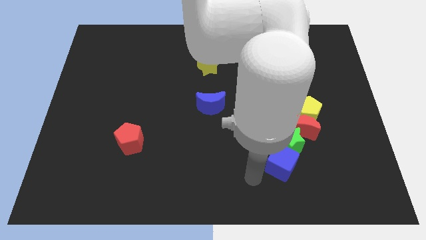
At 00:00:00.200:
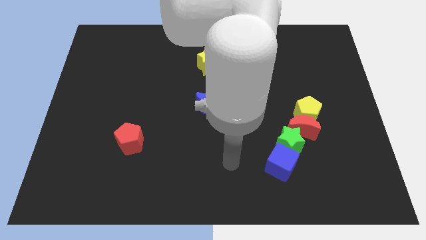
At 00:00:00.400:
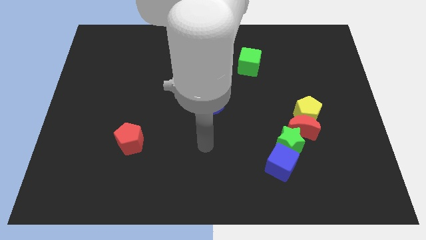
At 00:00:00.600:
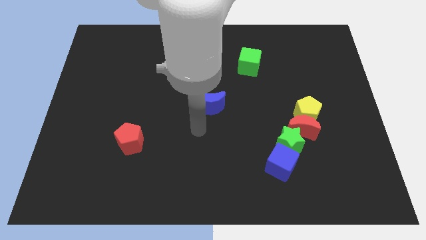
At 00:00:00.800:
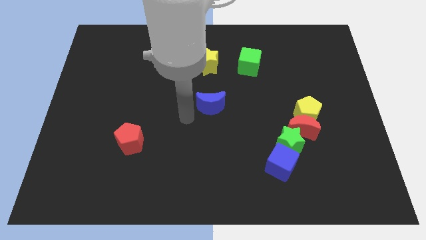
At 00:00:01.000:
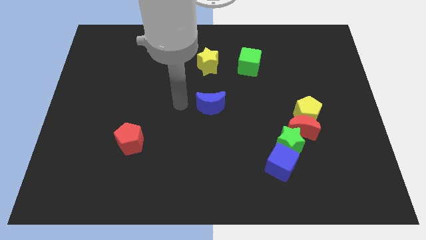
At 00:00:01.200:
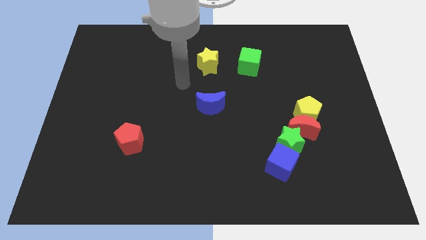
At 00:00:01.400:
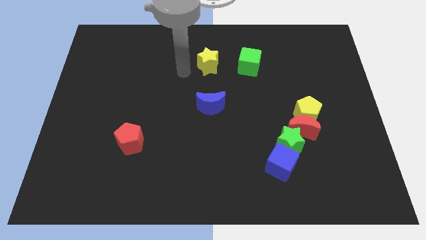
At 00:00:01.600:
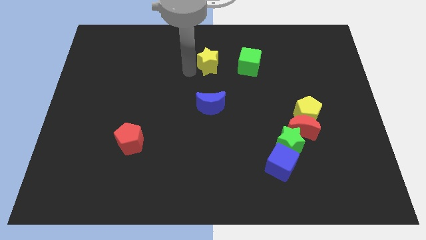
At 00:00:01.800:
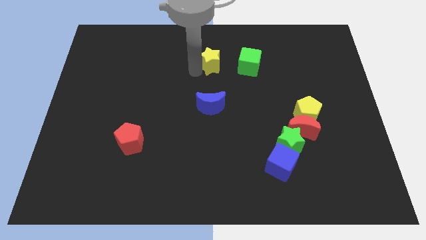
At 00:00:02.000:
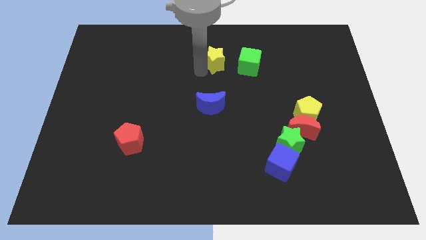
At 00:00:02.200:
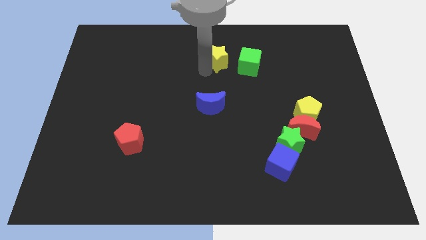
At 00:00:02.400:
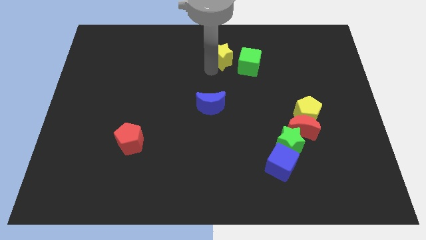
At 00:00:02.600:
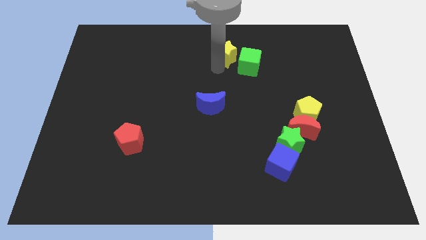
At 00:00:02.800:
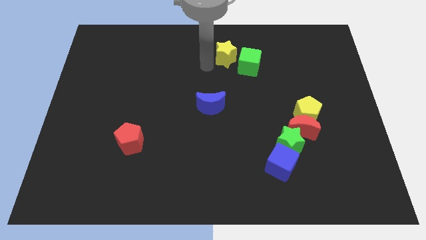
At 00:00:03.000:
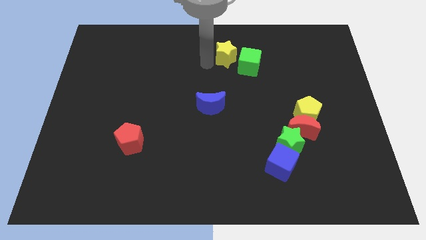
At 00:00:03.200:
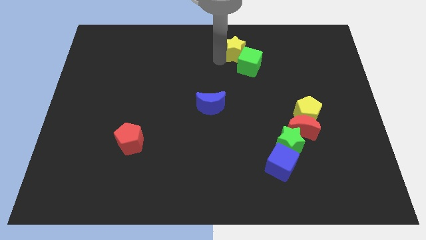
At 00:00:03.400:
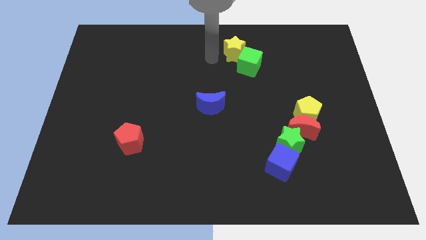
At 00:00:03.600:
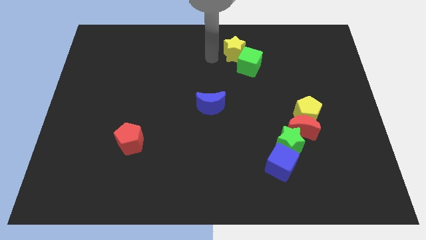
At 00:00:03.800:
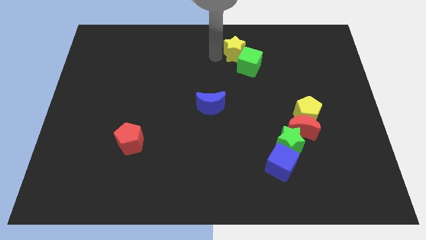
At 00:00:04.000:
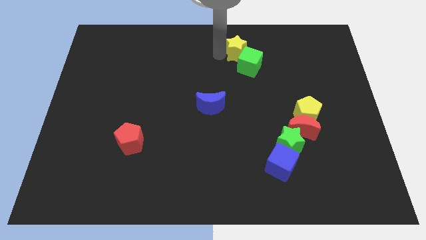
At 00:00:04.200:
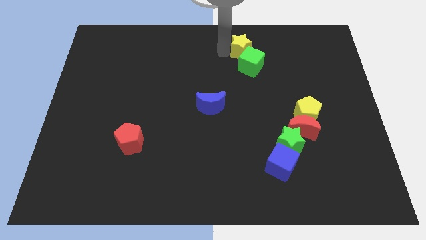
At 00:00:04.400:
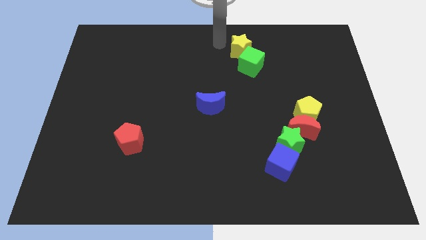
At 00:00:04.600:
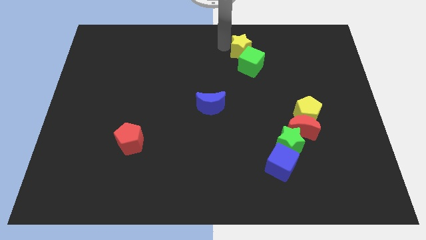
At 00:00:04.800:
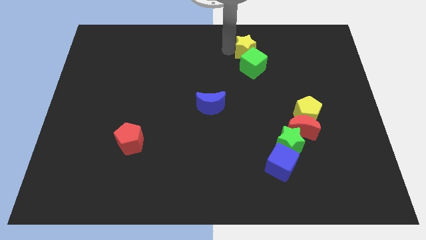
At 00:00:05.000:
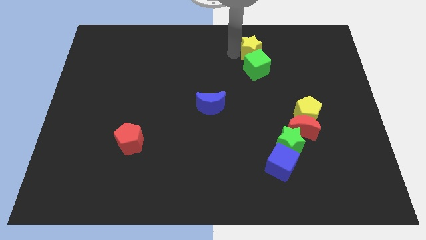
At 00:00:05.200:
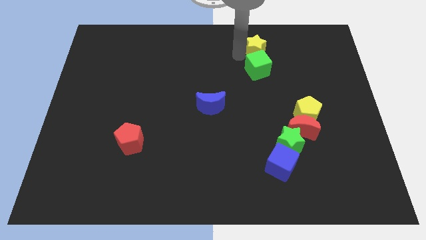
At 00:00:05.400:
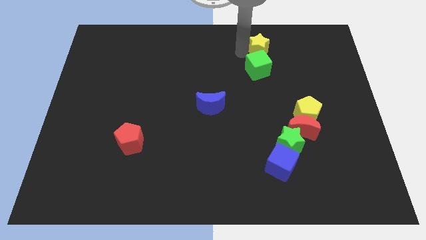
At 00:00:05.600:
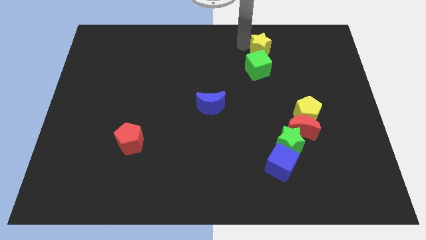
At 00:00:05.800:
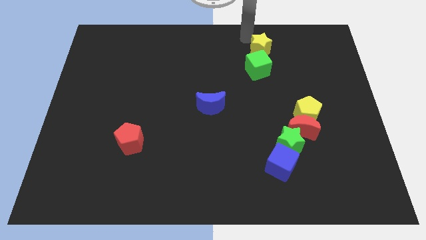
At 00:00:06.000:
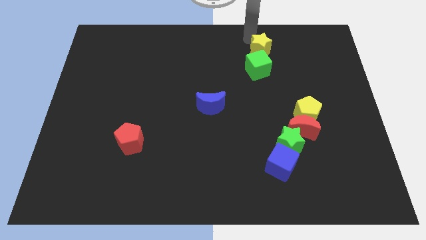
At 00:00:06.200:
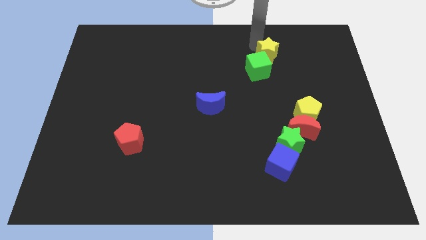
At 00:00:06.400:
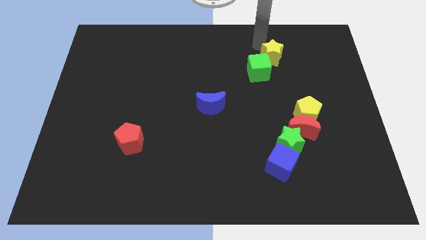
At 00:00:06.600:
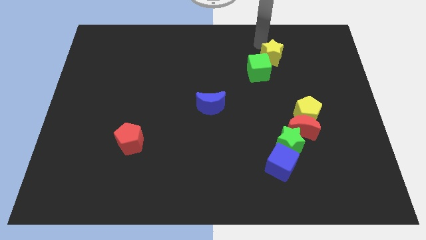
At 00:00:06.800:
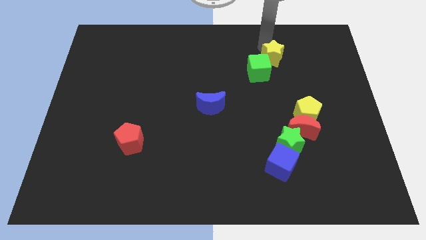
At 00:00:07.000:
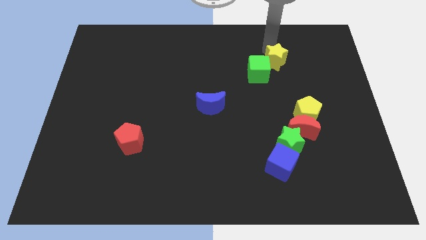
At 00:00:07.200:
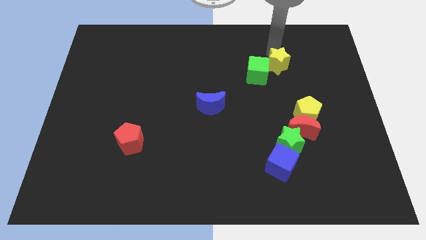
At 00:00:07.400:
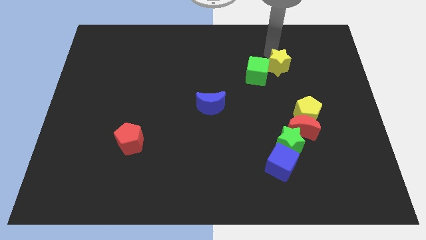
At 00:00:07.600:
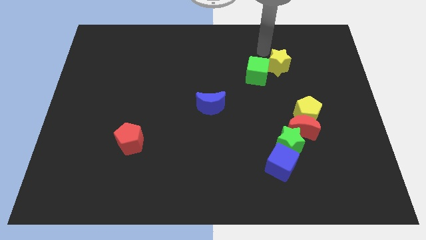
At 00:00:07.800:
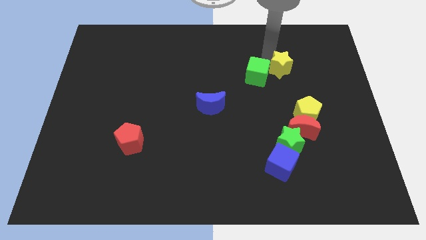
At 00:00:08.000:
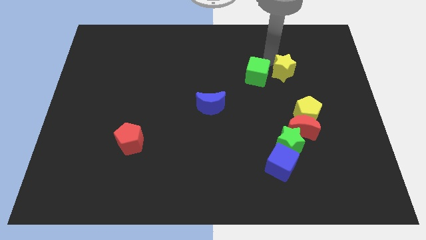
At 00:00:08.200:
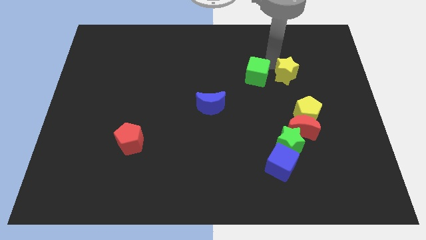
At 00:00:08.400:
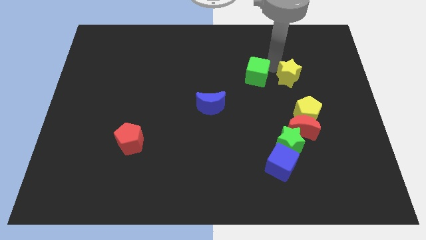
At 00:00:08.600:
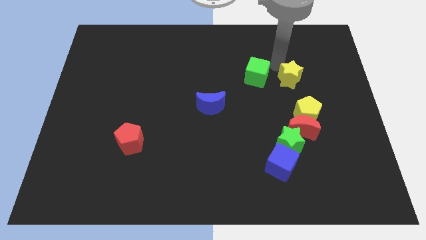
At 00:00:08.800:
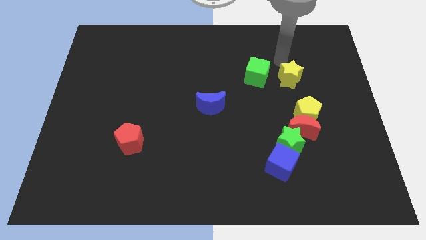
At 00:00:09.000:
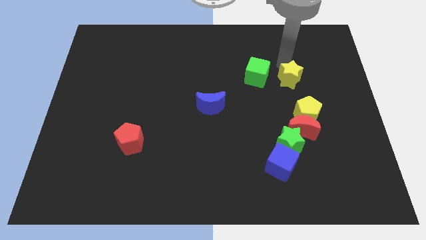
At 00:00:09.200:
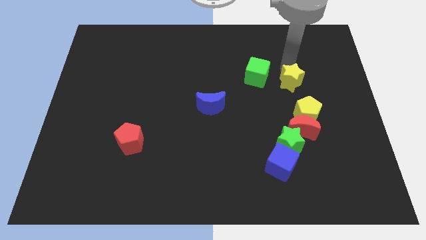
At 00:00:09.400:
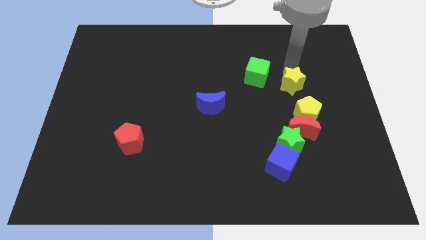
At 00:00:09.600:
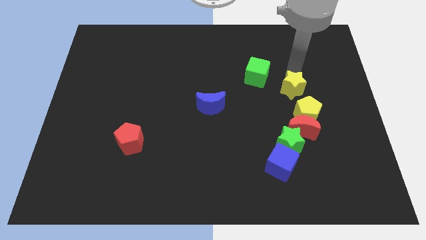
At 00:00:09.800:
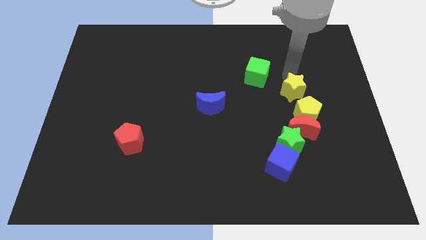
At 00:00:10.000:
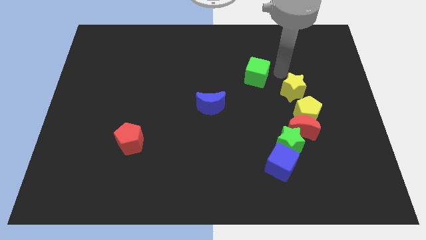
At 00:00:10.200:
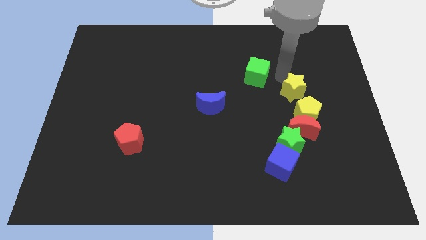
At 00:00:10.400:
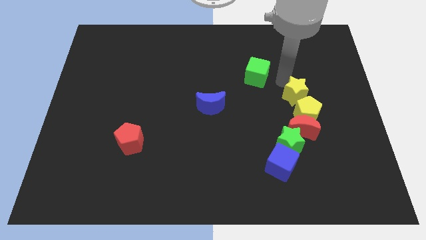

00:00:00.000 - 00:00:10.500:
slide the yellow star next to the yellow pentagon

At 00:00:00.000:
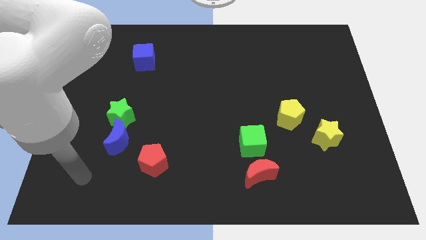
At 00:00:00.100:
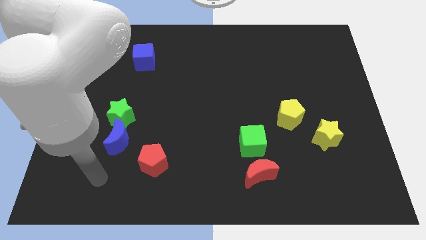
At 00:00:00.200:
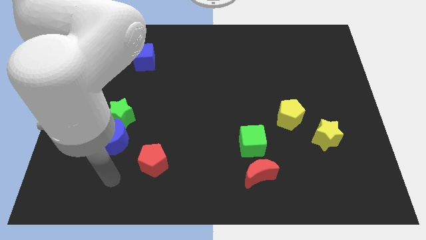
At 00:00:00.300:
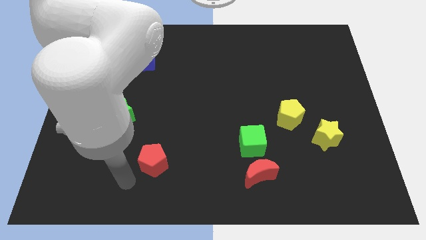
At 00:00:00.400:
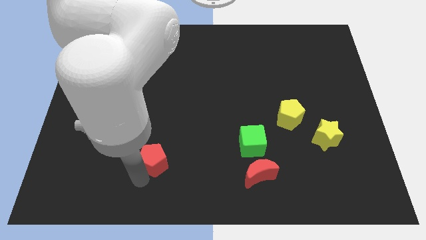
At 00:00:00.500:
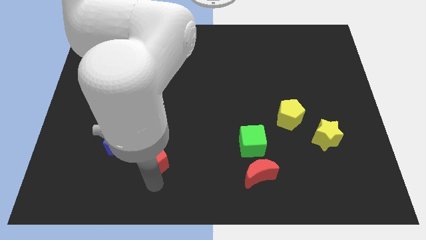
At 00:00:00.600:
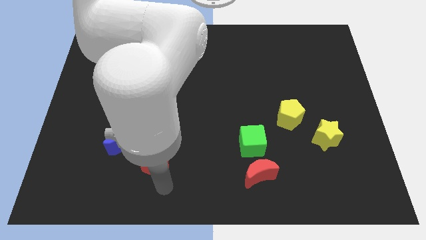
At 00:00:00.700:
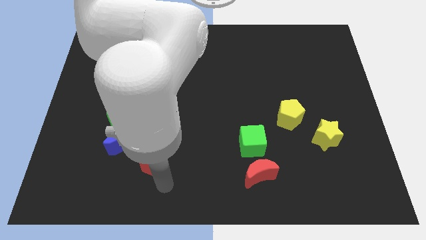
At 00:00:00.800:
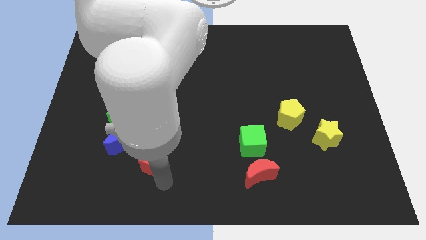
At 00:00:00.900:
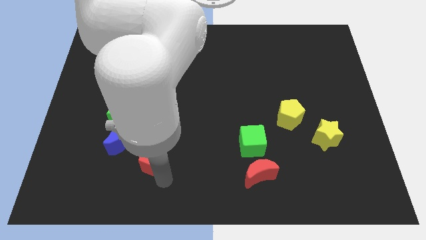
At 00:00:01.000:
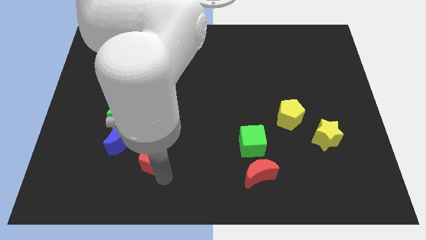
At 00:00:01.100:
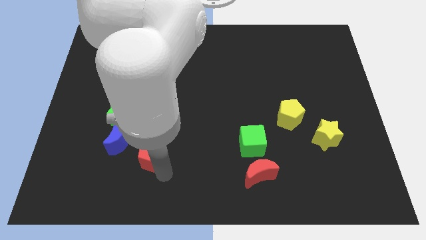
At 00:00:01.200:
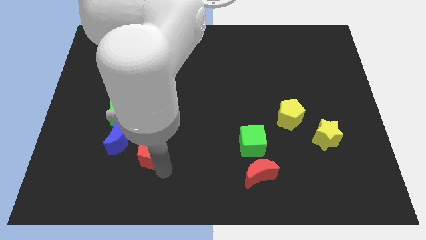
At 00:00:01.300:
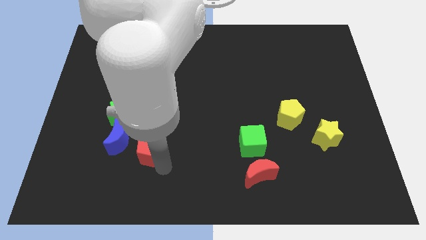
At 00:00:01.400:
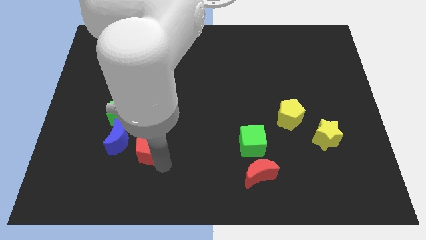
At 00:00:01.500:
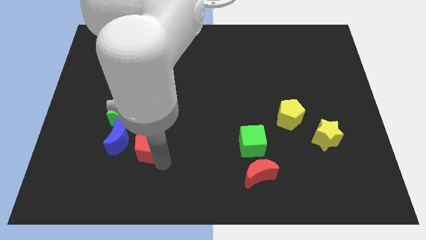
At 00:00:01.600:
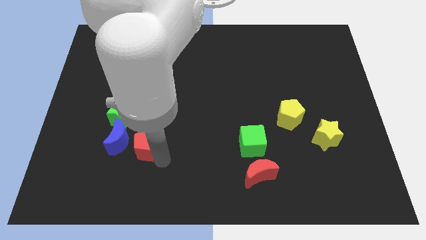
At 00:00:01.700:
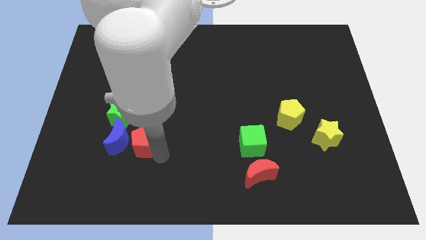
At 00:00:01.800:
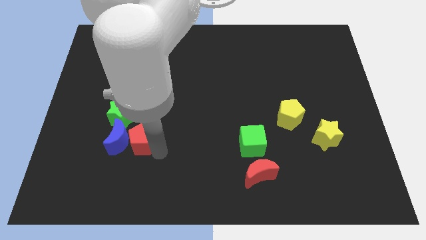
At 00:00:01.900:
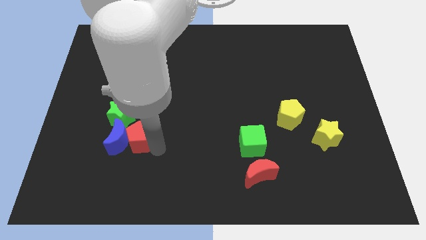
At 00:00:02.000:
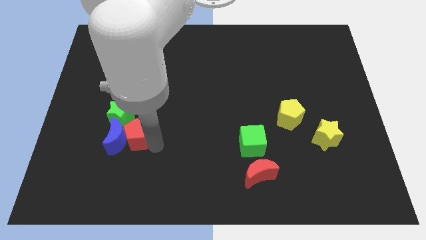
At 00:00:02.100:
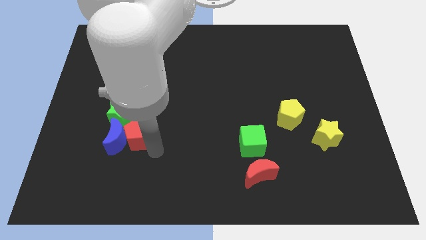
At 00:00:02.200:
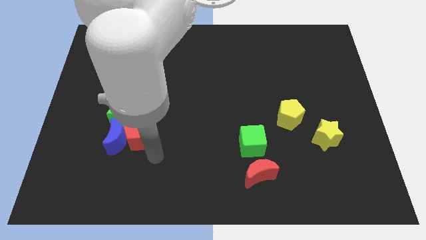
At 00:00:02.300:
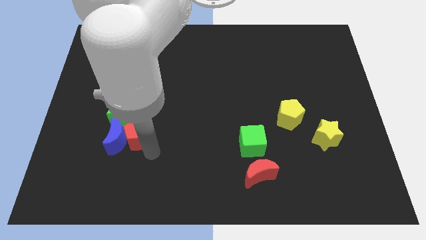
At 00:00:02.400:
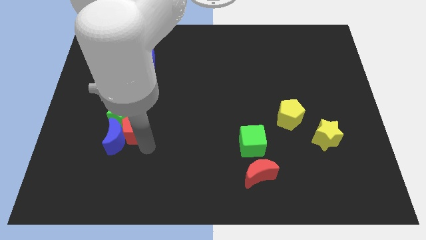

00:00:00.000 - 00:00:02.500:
put the red pentagon towards the green star
